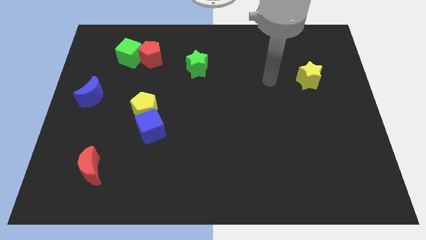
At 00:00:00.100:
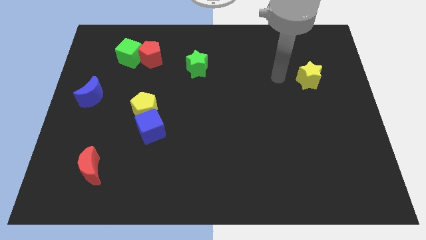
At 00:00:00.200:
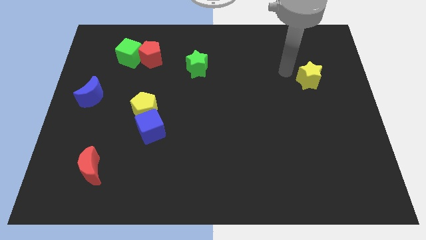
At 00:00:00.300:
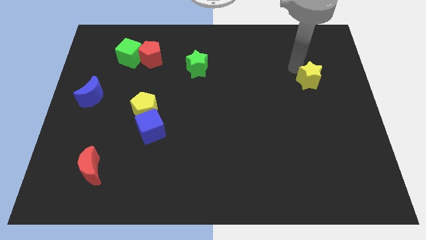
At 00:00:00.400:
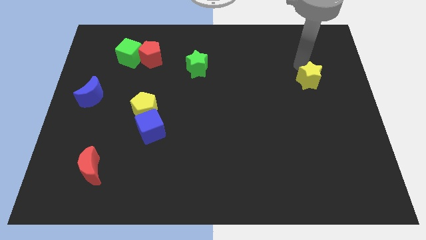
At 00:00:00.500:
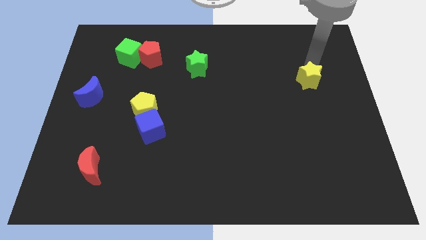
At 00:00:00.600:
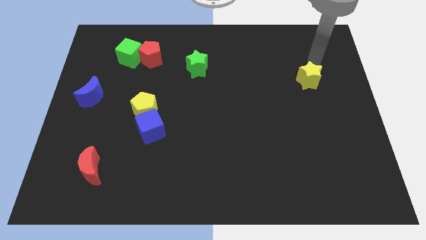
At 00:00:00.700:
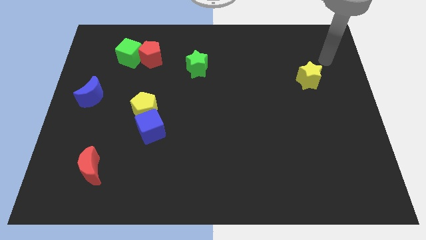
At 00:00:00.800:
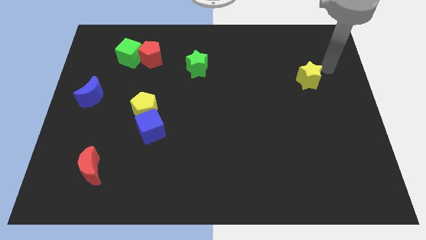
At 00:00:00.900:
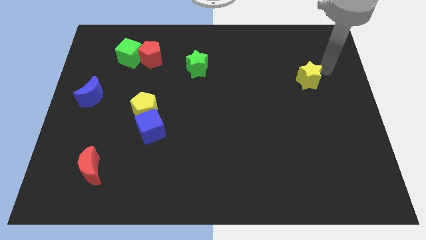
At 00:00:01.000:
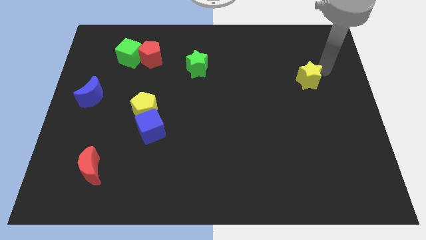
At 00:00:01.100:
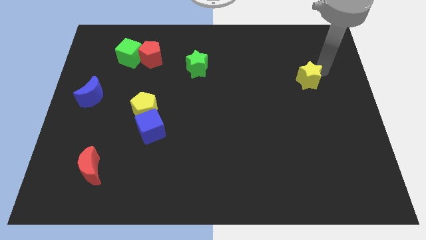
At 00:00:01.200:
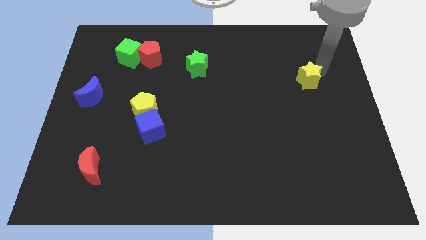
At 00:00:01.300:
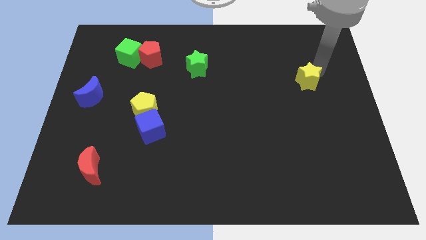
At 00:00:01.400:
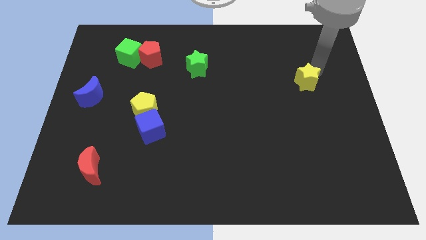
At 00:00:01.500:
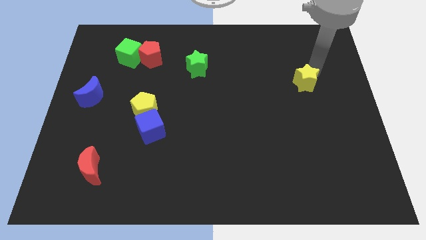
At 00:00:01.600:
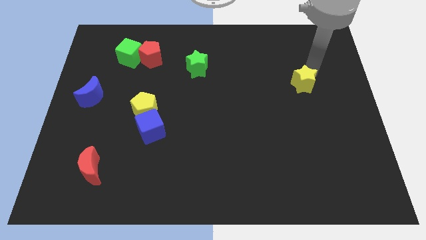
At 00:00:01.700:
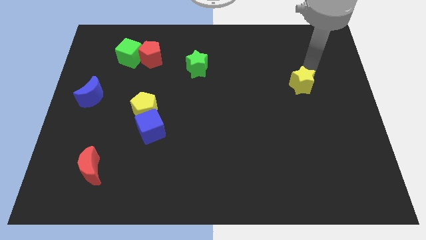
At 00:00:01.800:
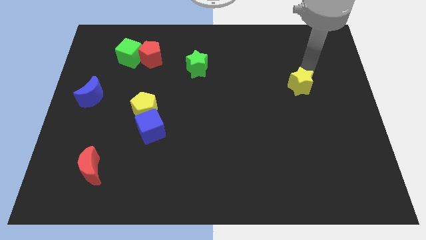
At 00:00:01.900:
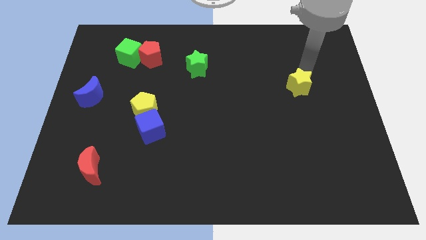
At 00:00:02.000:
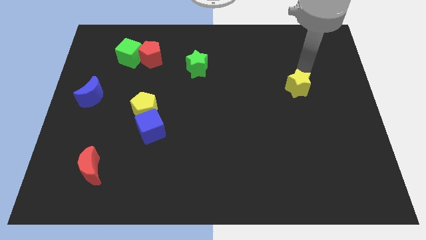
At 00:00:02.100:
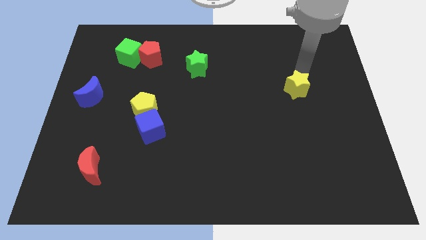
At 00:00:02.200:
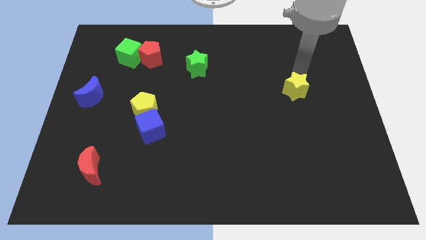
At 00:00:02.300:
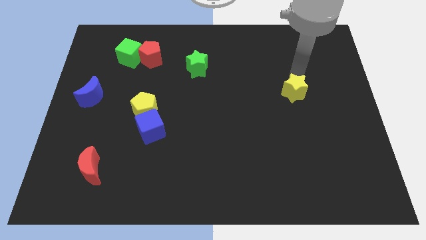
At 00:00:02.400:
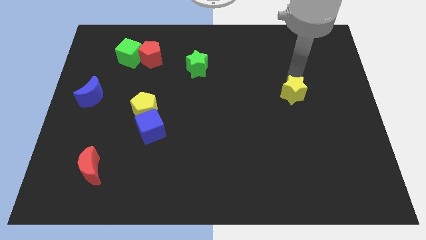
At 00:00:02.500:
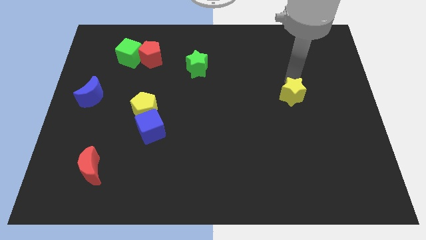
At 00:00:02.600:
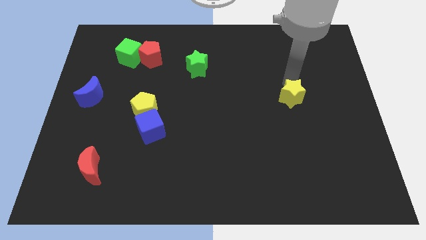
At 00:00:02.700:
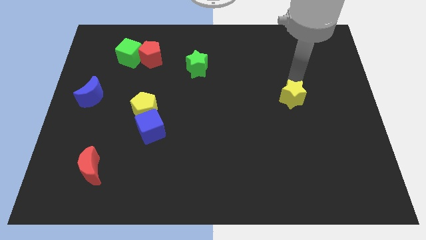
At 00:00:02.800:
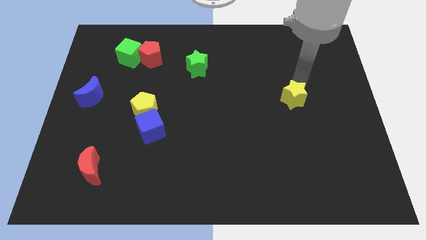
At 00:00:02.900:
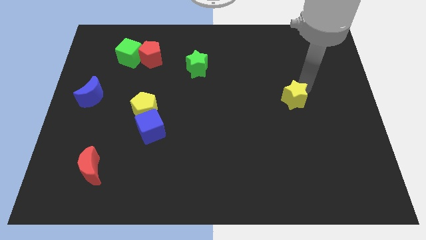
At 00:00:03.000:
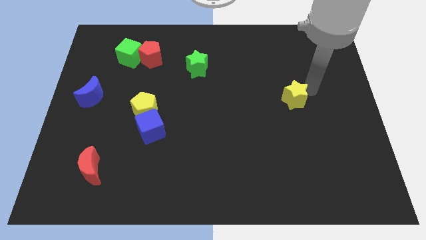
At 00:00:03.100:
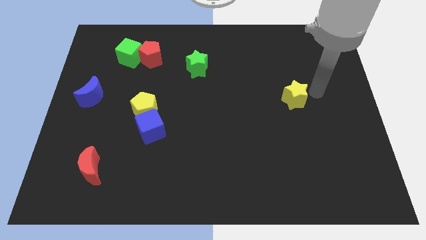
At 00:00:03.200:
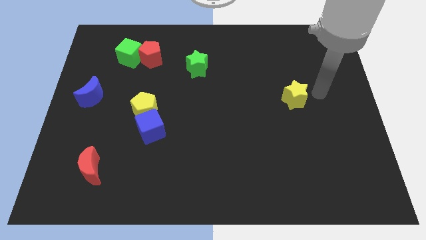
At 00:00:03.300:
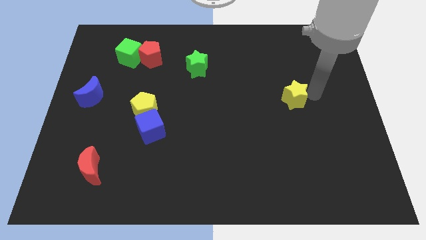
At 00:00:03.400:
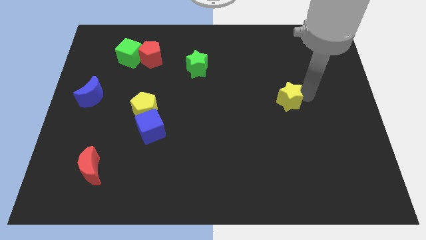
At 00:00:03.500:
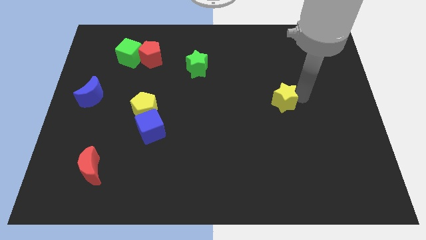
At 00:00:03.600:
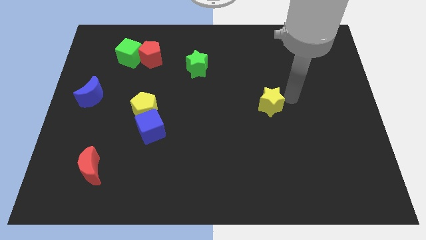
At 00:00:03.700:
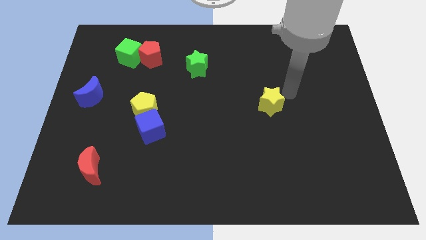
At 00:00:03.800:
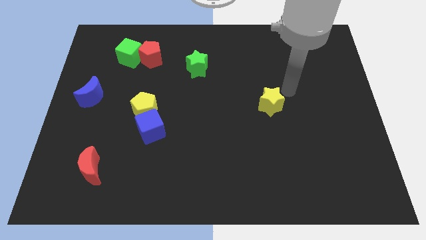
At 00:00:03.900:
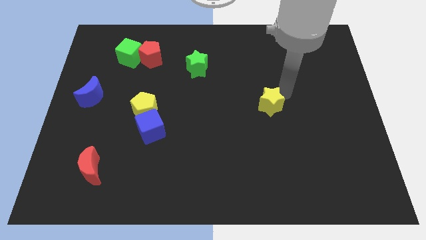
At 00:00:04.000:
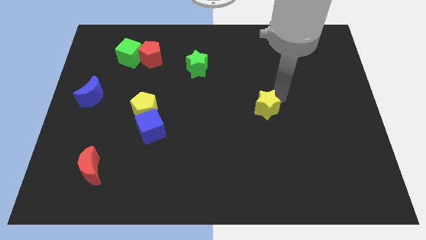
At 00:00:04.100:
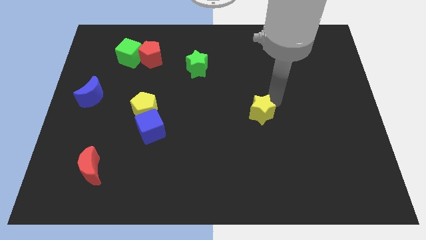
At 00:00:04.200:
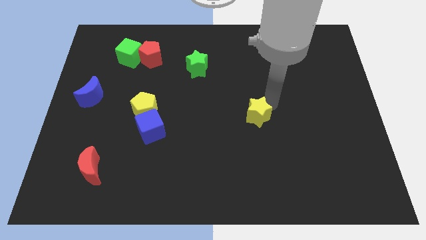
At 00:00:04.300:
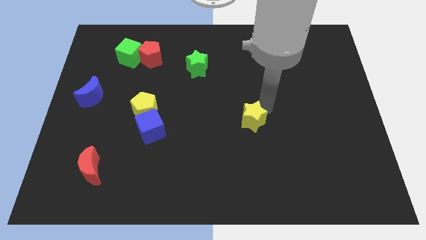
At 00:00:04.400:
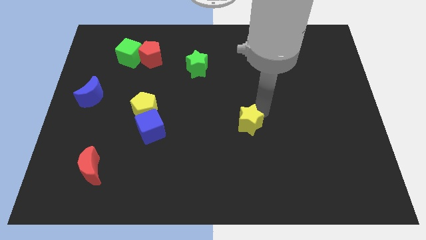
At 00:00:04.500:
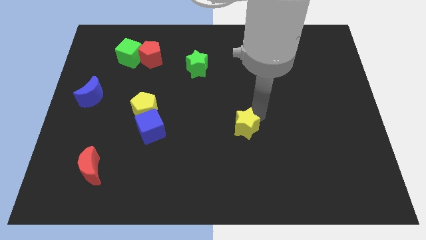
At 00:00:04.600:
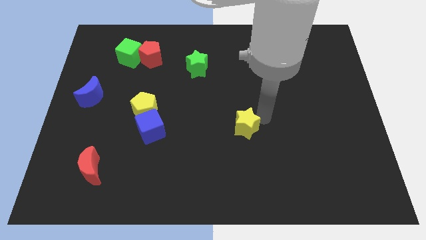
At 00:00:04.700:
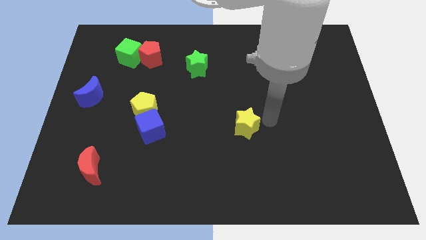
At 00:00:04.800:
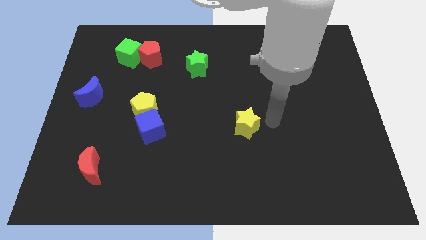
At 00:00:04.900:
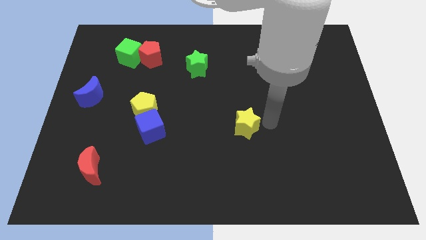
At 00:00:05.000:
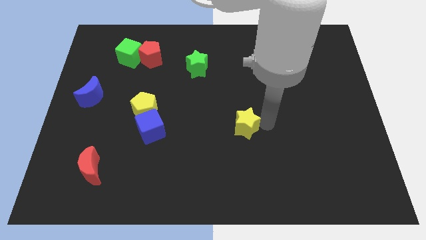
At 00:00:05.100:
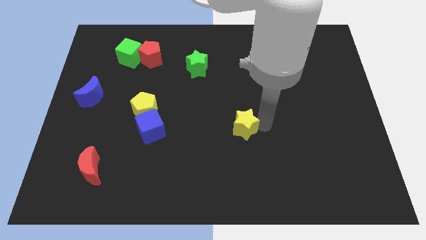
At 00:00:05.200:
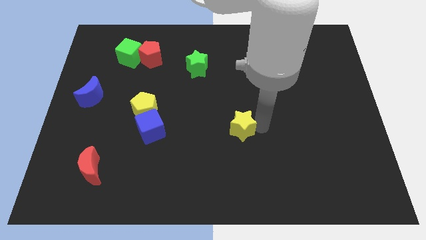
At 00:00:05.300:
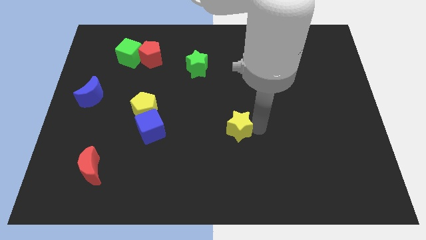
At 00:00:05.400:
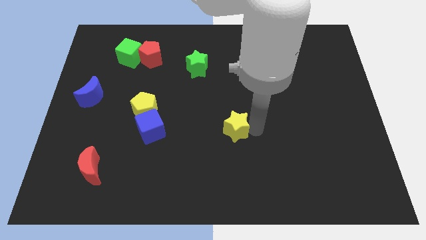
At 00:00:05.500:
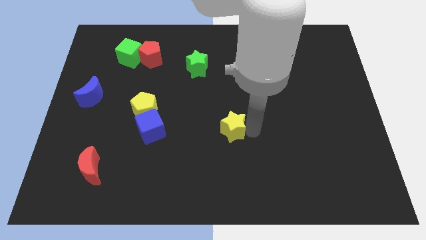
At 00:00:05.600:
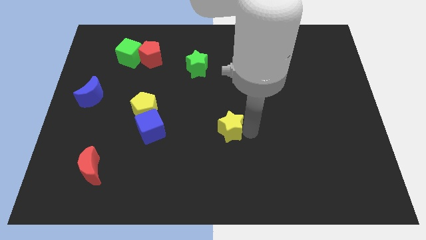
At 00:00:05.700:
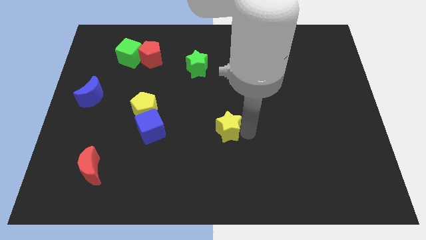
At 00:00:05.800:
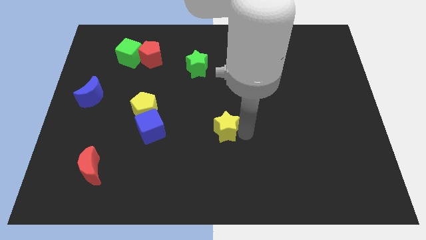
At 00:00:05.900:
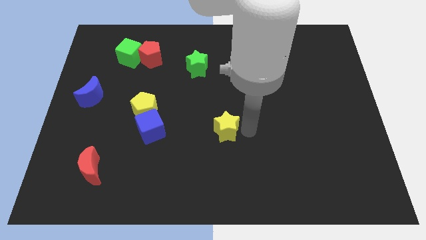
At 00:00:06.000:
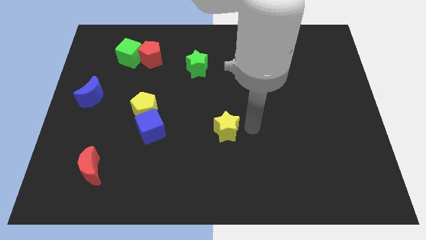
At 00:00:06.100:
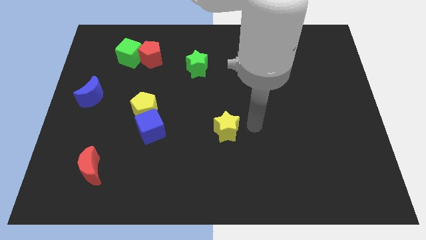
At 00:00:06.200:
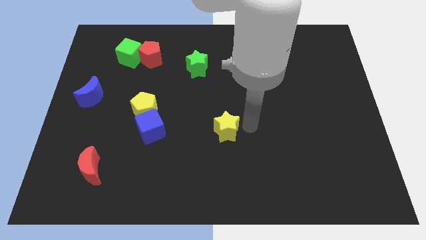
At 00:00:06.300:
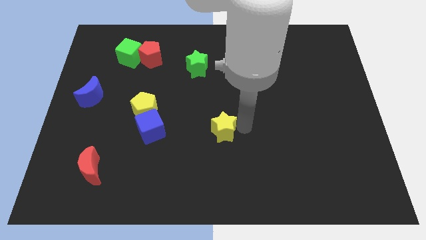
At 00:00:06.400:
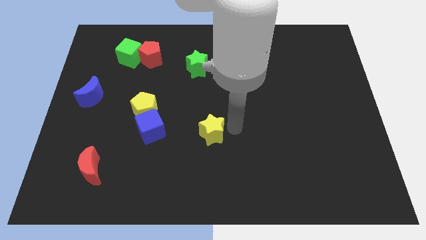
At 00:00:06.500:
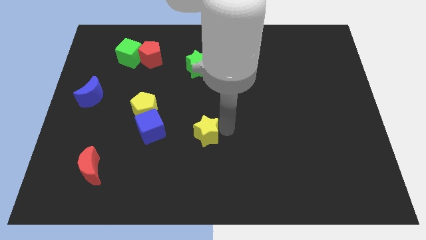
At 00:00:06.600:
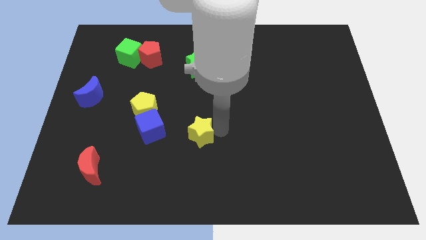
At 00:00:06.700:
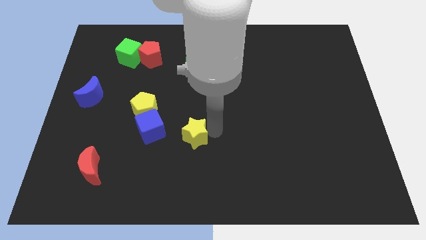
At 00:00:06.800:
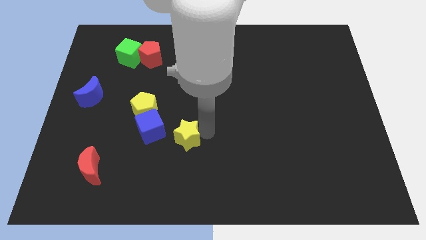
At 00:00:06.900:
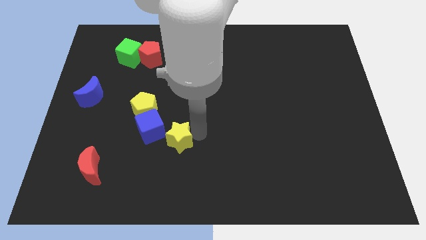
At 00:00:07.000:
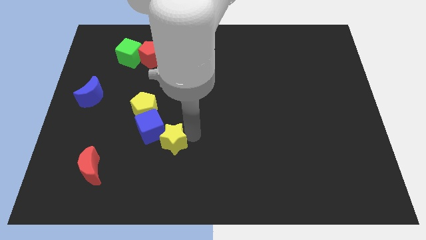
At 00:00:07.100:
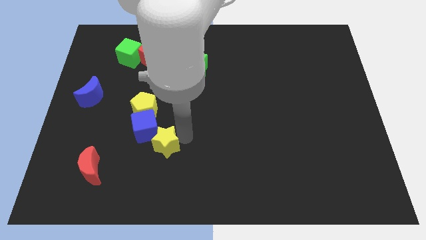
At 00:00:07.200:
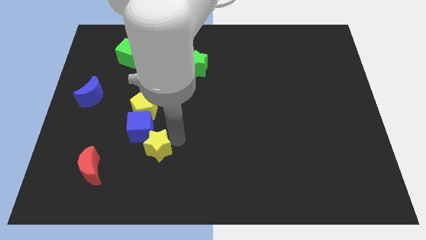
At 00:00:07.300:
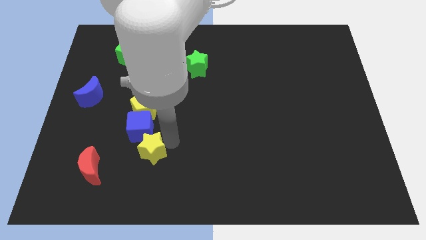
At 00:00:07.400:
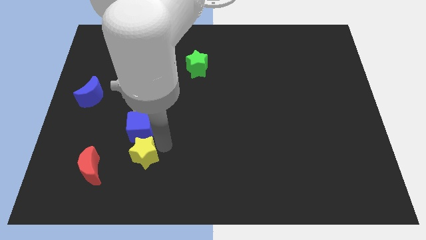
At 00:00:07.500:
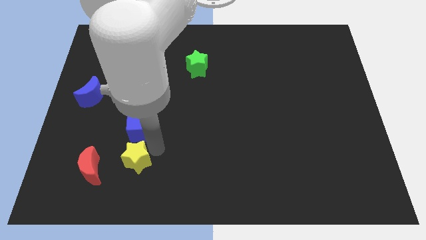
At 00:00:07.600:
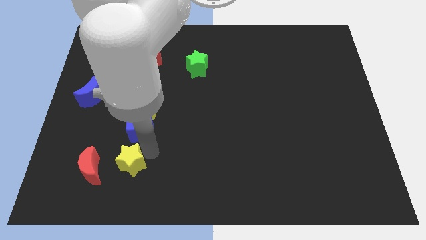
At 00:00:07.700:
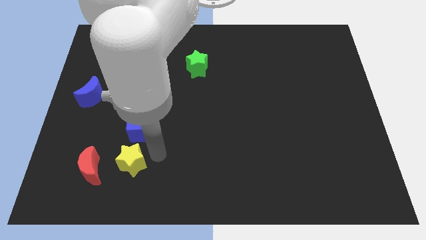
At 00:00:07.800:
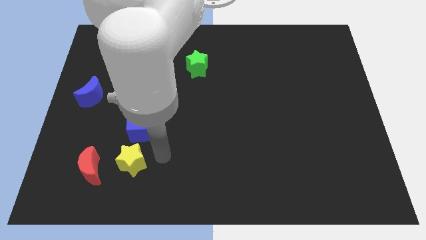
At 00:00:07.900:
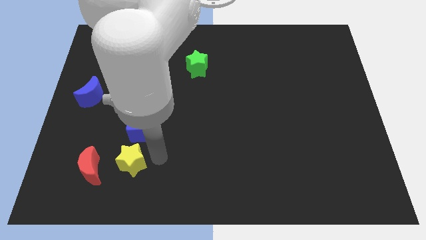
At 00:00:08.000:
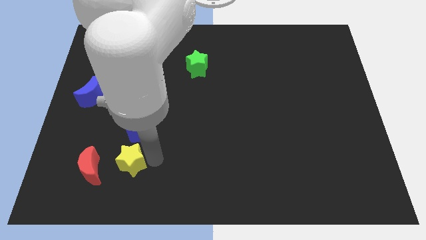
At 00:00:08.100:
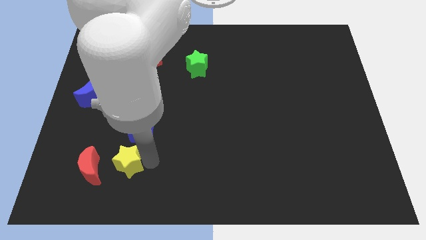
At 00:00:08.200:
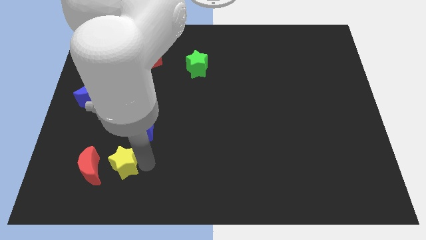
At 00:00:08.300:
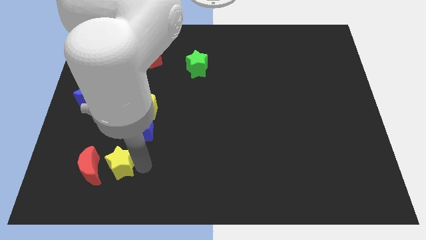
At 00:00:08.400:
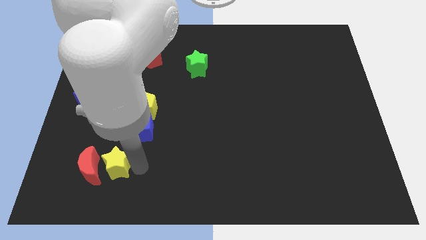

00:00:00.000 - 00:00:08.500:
move the yellow star to the red moon
